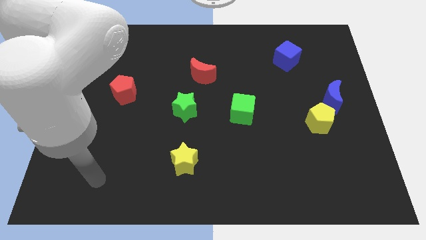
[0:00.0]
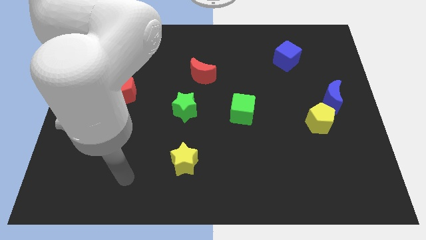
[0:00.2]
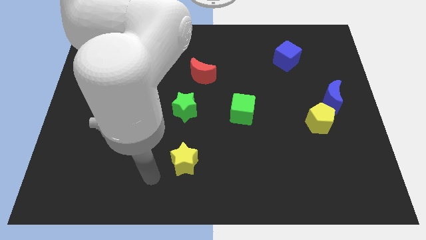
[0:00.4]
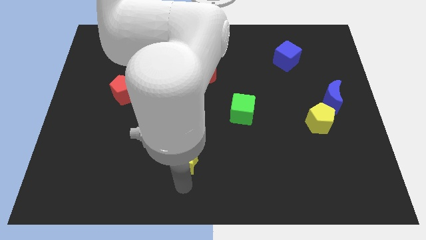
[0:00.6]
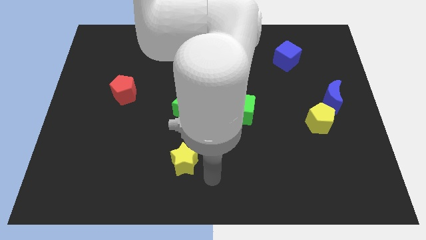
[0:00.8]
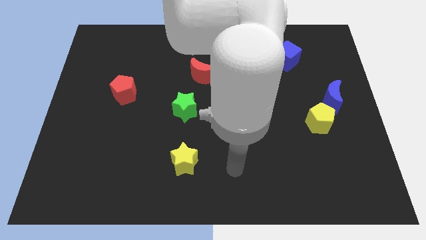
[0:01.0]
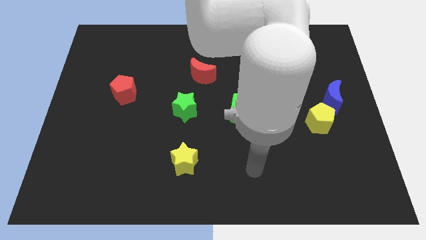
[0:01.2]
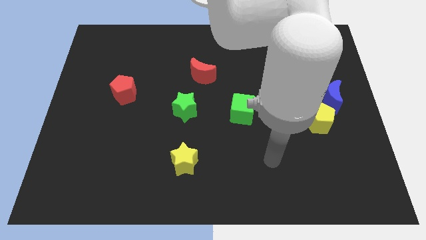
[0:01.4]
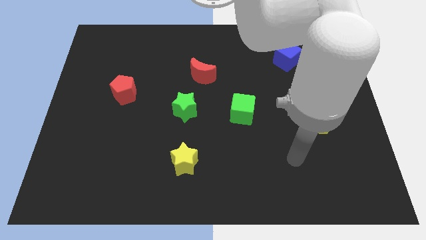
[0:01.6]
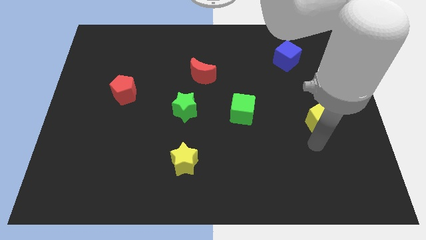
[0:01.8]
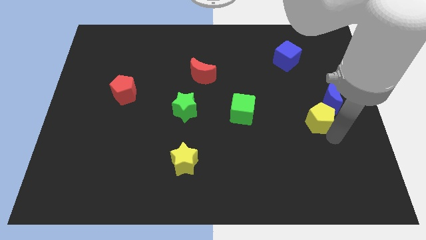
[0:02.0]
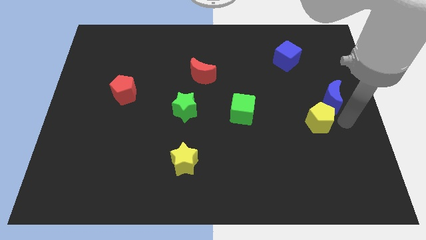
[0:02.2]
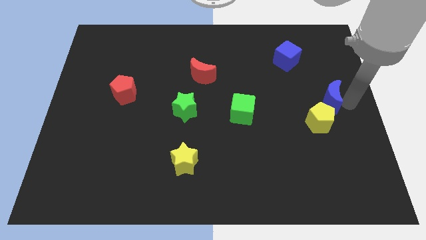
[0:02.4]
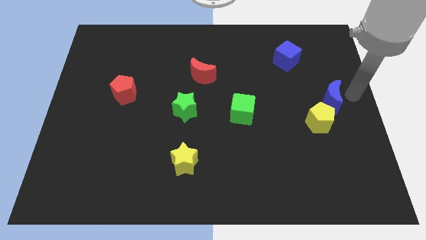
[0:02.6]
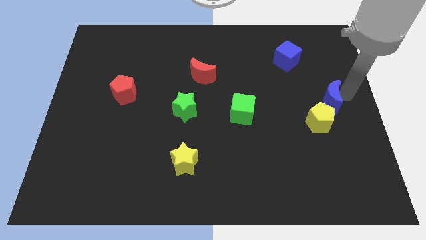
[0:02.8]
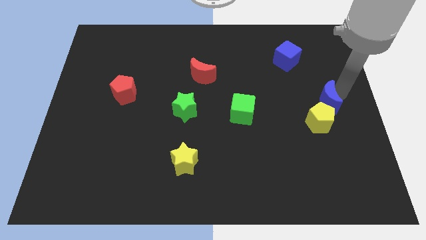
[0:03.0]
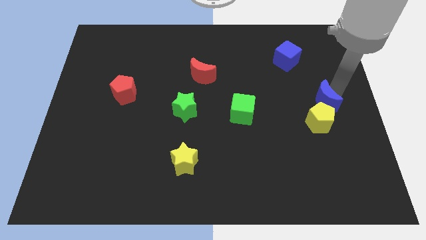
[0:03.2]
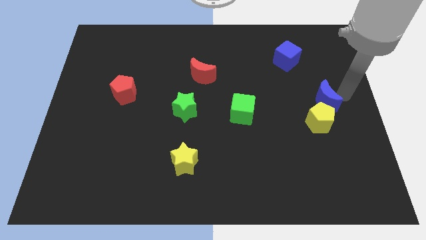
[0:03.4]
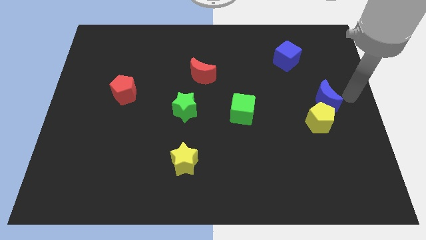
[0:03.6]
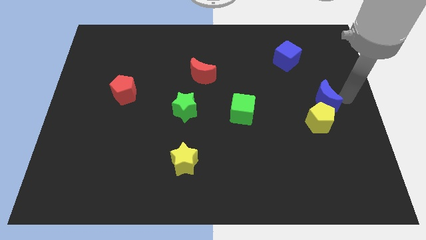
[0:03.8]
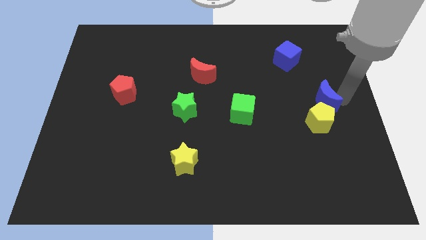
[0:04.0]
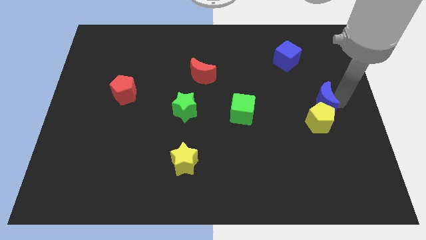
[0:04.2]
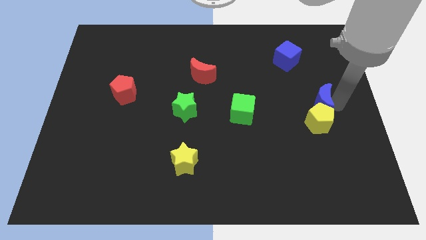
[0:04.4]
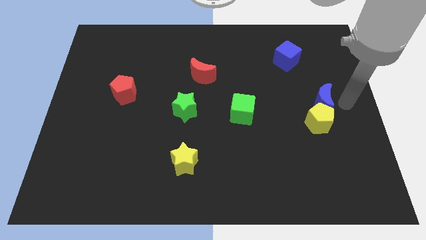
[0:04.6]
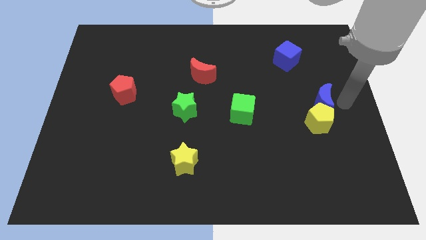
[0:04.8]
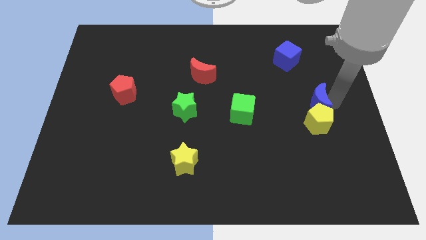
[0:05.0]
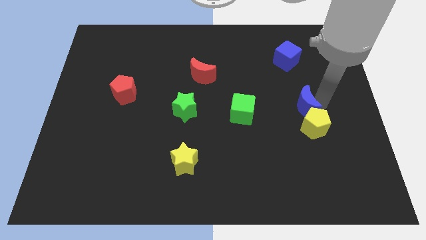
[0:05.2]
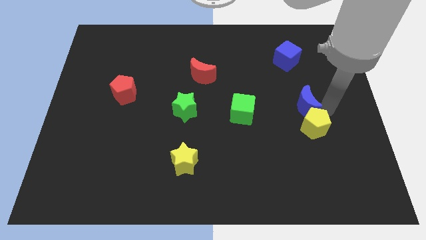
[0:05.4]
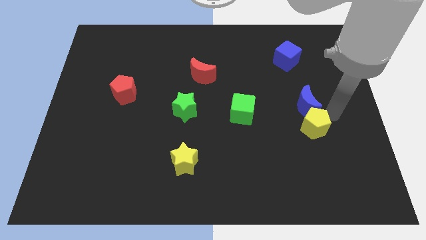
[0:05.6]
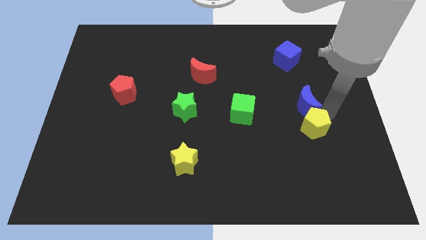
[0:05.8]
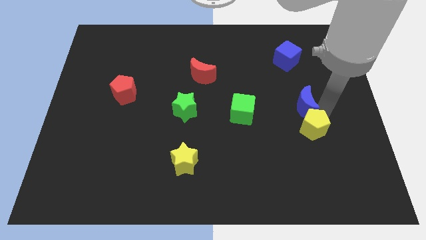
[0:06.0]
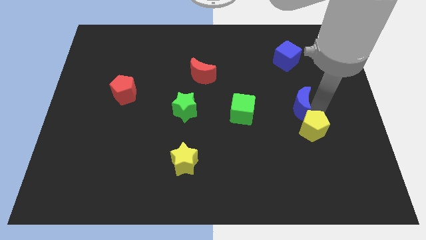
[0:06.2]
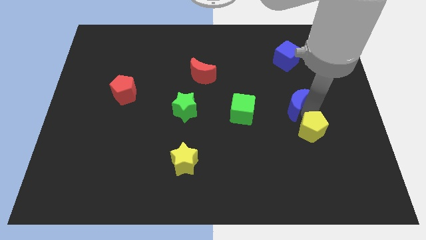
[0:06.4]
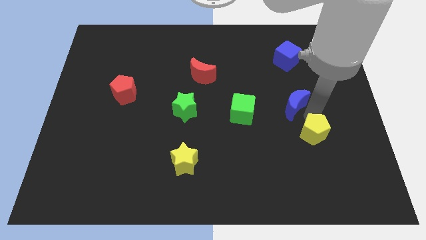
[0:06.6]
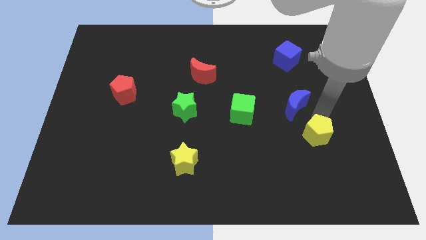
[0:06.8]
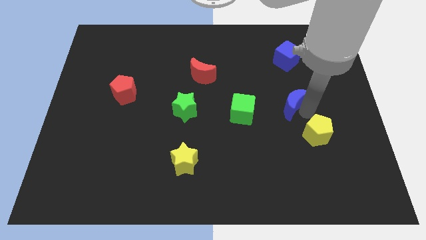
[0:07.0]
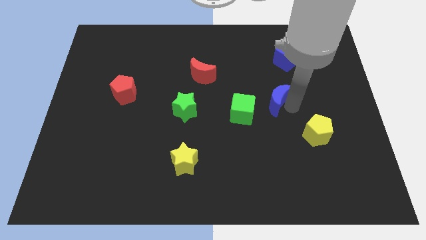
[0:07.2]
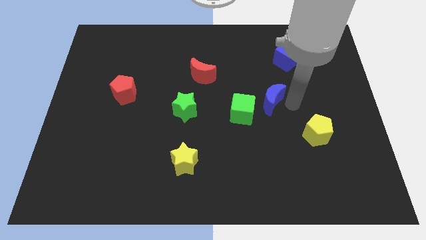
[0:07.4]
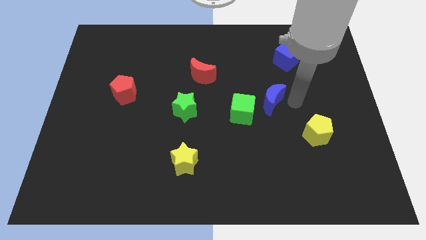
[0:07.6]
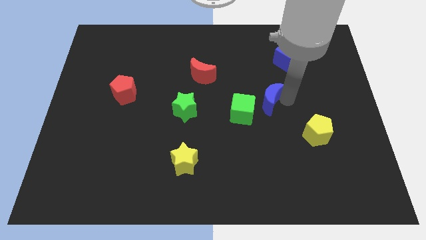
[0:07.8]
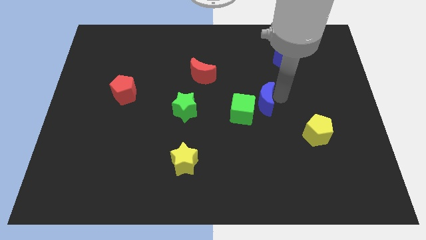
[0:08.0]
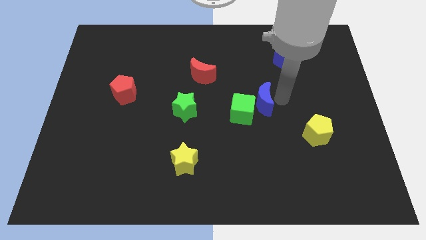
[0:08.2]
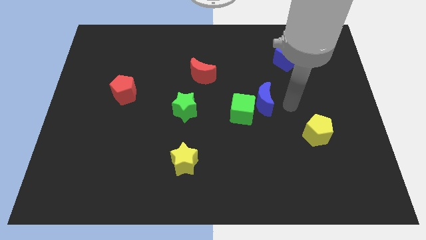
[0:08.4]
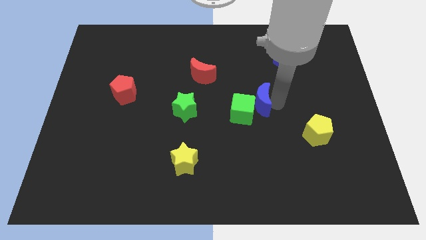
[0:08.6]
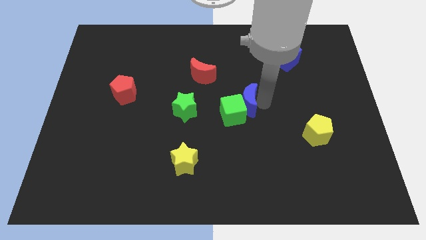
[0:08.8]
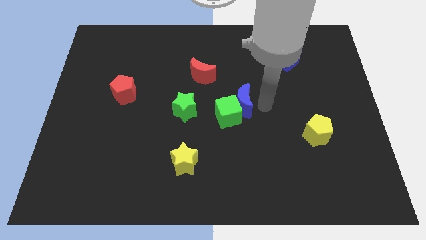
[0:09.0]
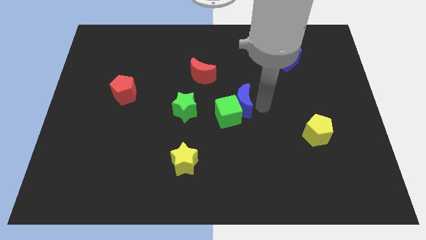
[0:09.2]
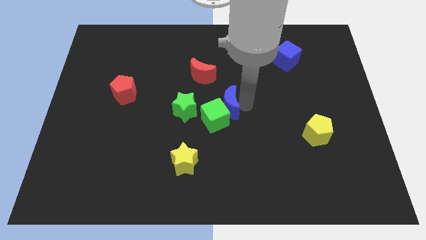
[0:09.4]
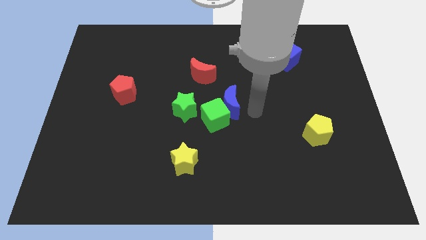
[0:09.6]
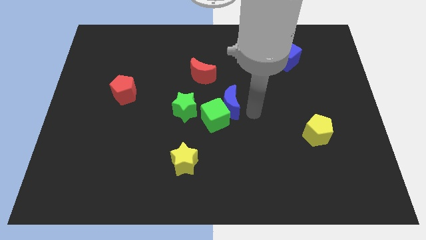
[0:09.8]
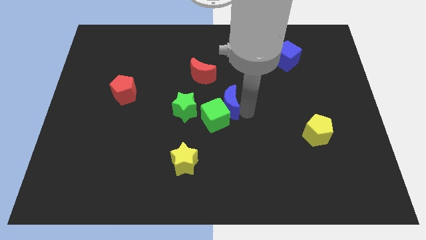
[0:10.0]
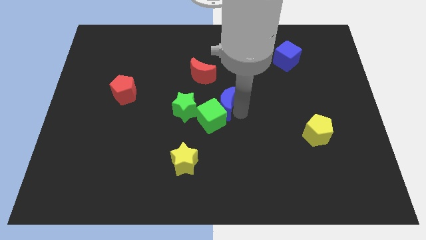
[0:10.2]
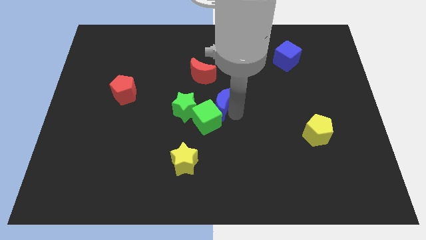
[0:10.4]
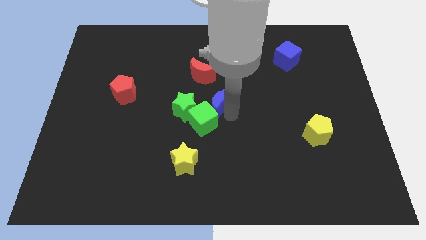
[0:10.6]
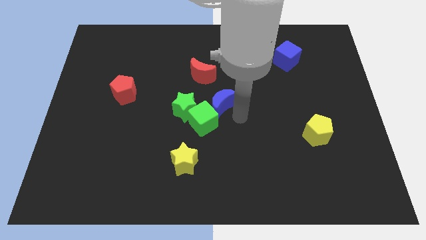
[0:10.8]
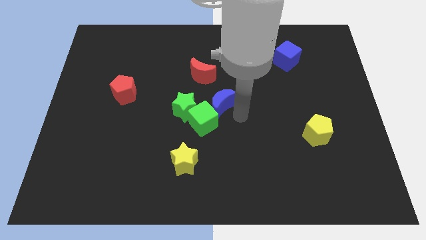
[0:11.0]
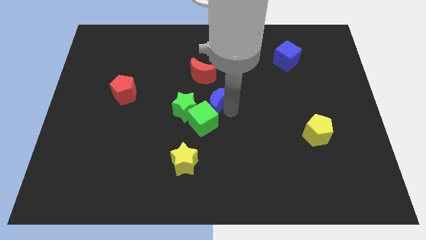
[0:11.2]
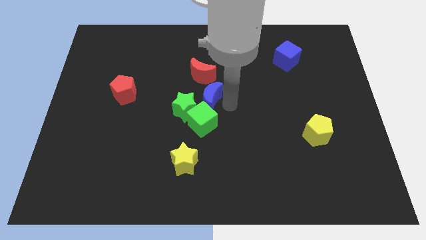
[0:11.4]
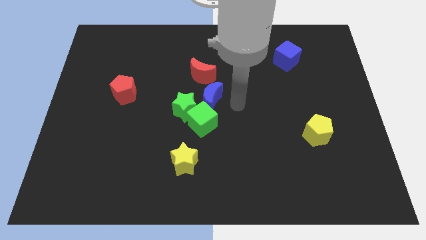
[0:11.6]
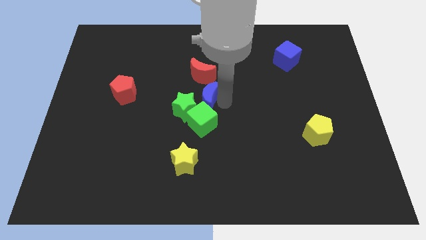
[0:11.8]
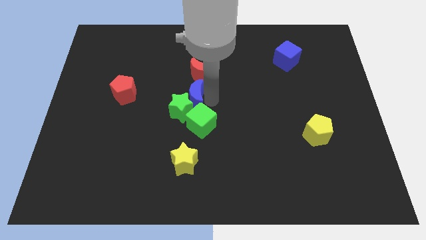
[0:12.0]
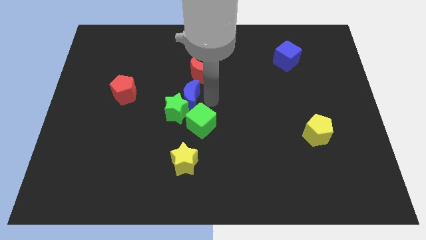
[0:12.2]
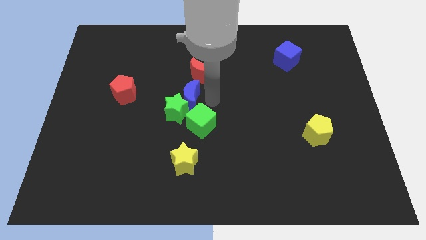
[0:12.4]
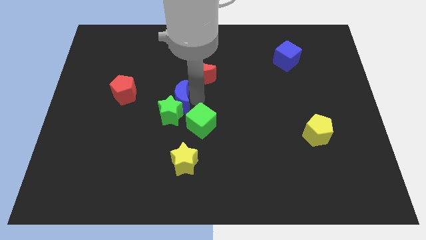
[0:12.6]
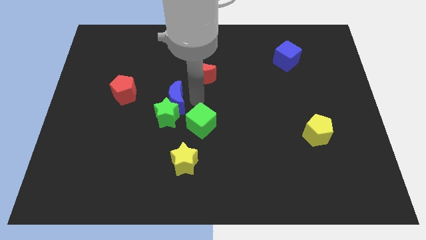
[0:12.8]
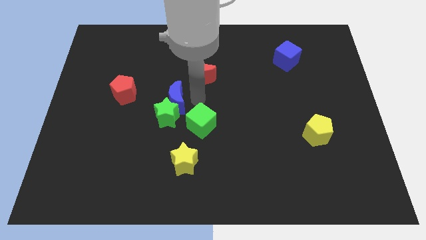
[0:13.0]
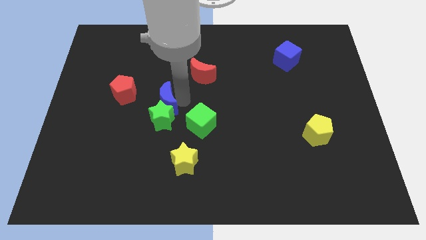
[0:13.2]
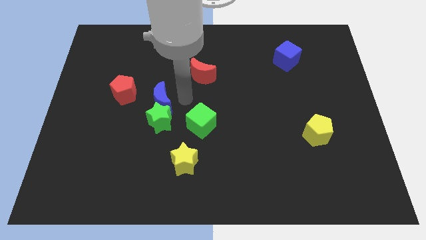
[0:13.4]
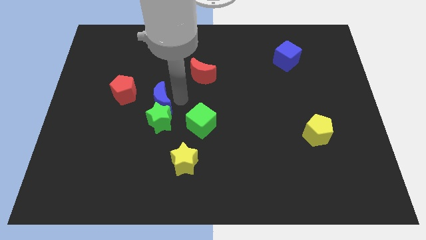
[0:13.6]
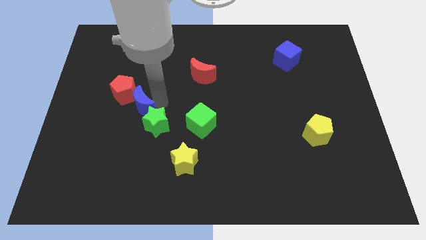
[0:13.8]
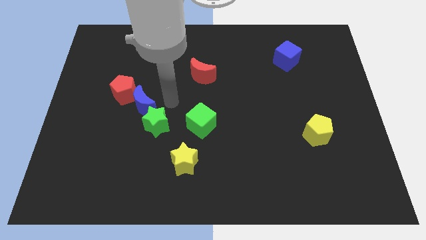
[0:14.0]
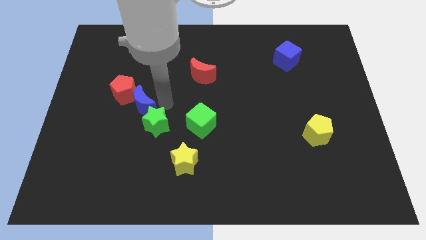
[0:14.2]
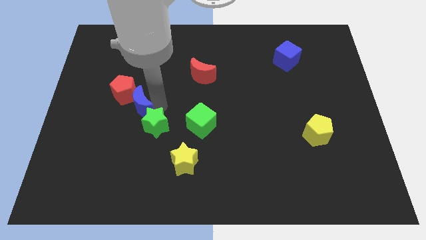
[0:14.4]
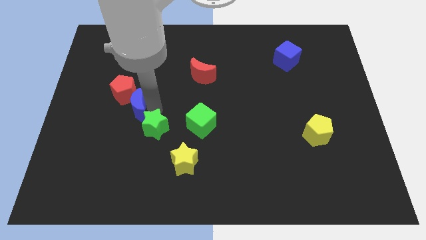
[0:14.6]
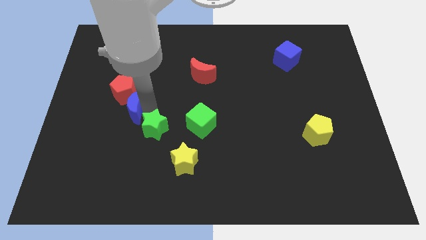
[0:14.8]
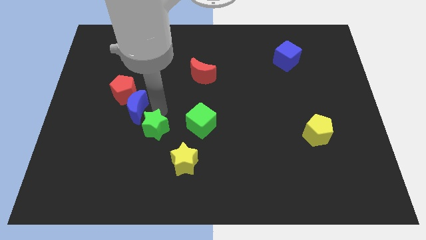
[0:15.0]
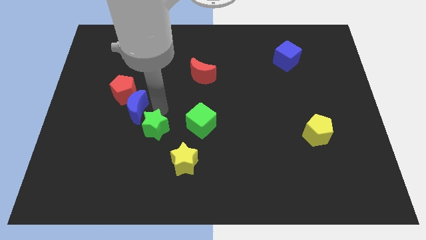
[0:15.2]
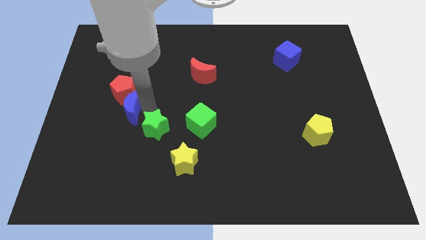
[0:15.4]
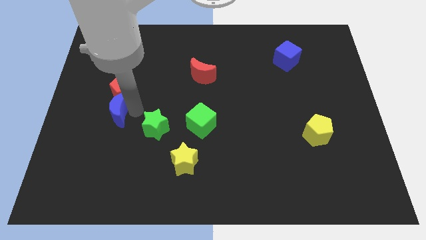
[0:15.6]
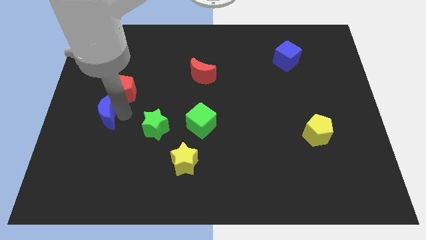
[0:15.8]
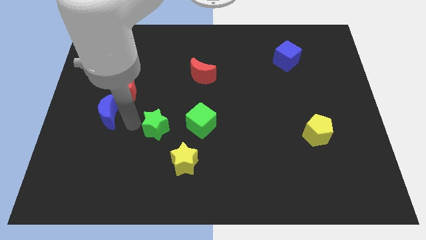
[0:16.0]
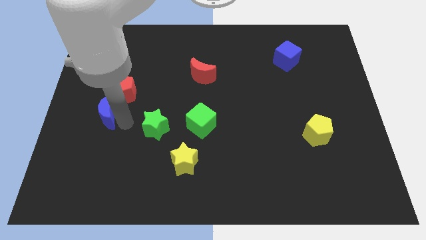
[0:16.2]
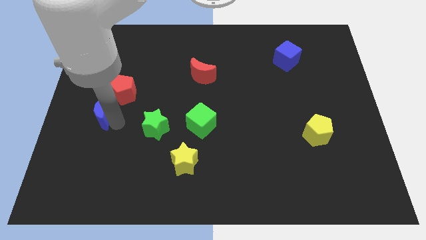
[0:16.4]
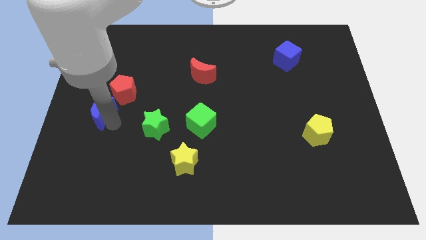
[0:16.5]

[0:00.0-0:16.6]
slide the blue moon to the center left
